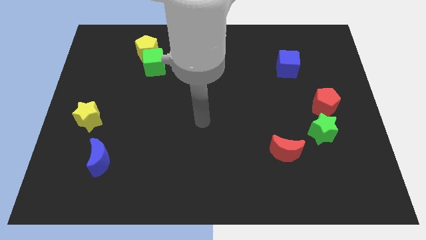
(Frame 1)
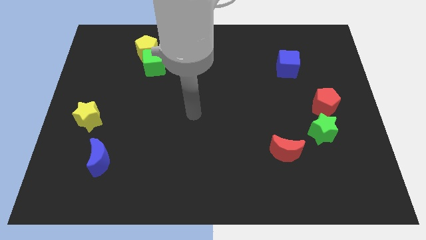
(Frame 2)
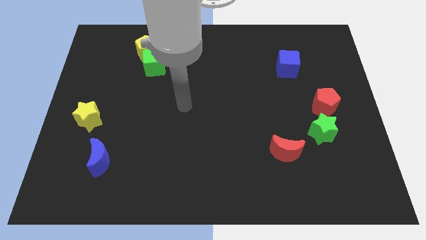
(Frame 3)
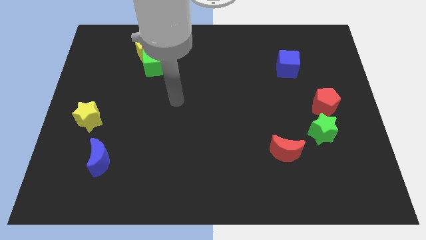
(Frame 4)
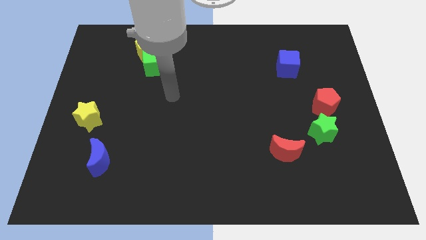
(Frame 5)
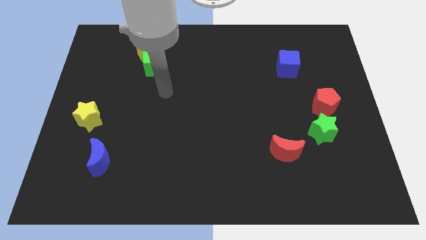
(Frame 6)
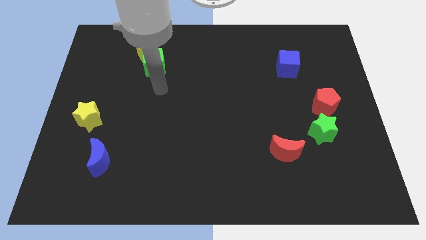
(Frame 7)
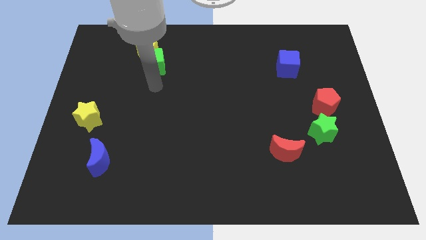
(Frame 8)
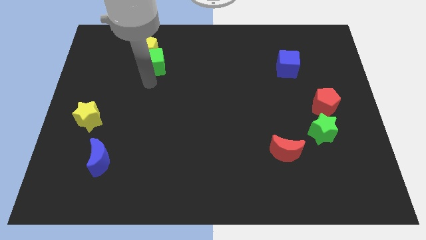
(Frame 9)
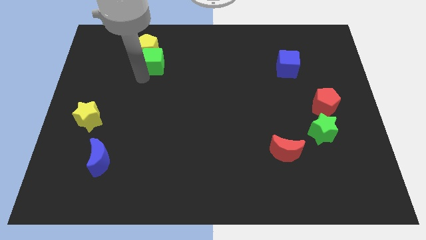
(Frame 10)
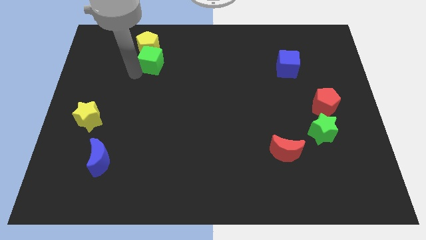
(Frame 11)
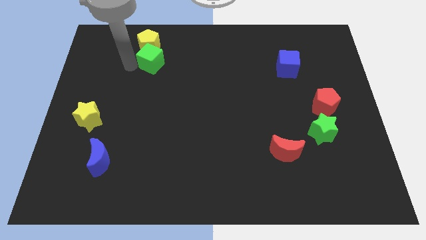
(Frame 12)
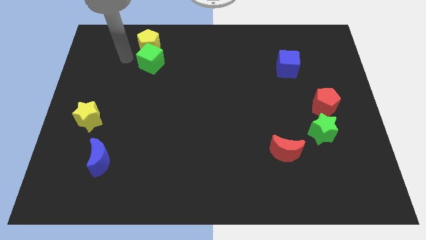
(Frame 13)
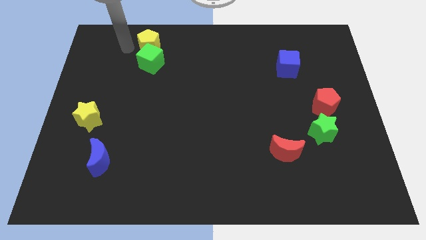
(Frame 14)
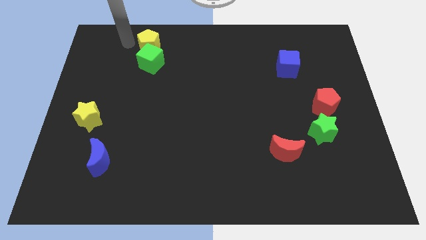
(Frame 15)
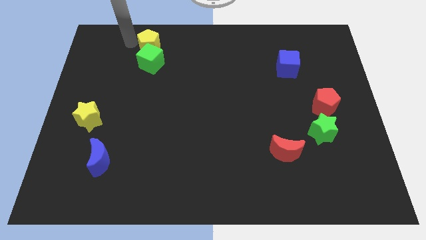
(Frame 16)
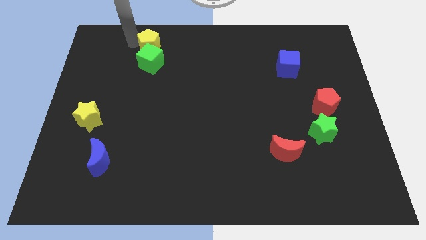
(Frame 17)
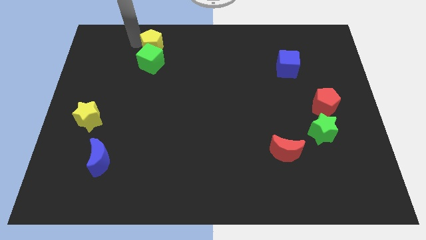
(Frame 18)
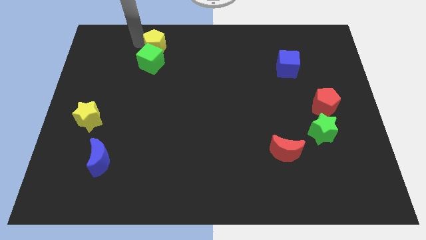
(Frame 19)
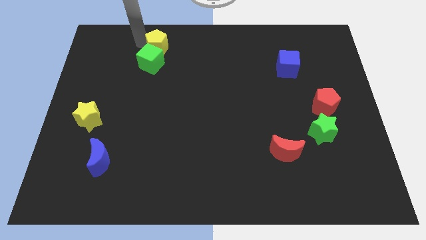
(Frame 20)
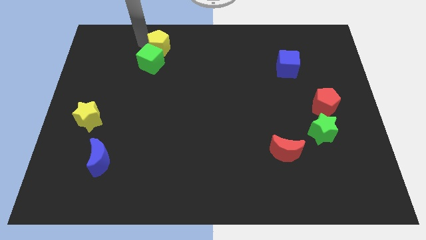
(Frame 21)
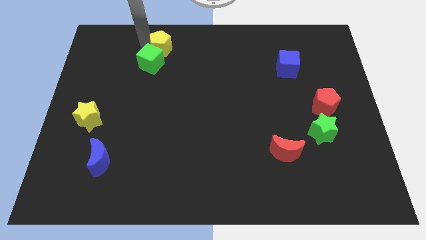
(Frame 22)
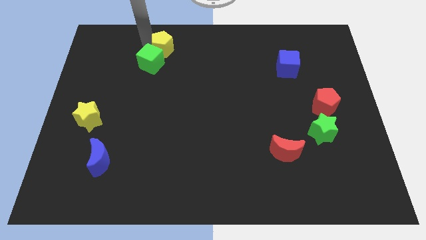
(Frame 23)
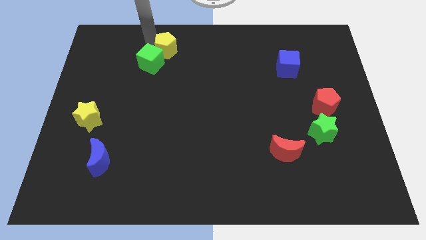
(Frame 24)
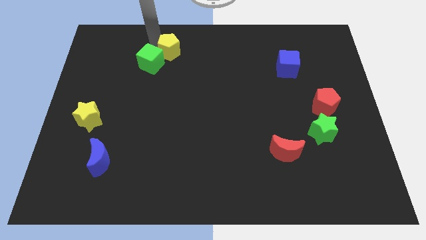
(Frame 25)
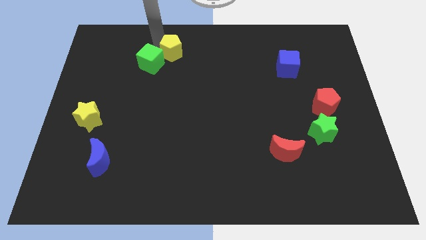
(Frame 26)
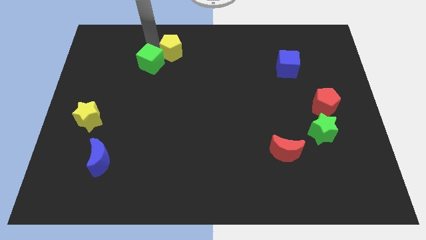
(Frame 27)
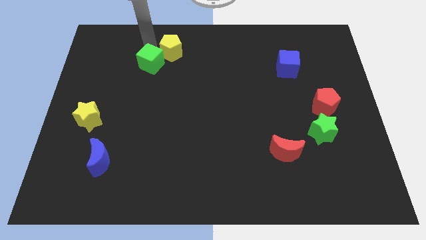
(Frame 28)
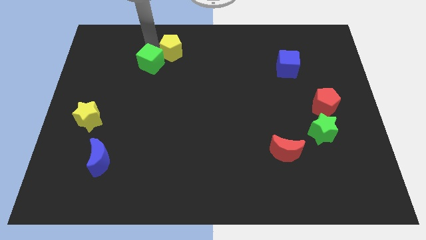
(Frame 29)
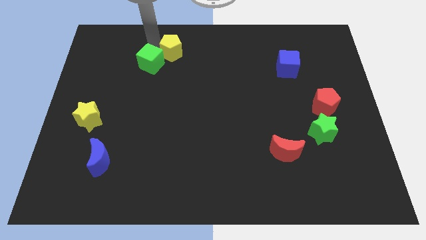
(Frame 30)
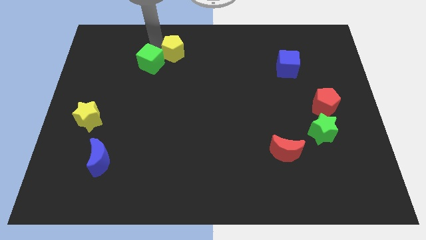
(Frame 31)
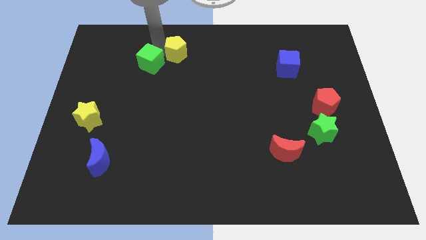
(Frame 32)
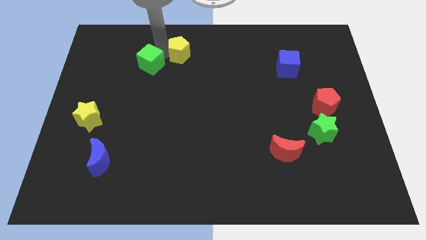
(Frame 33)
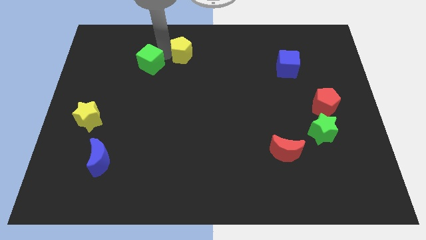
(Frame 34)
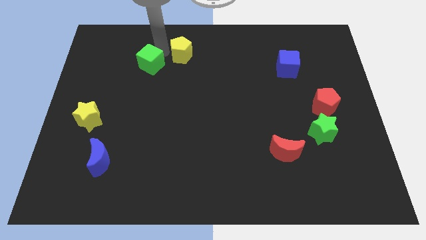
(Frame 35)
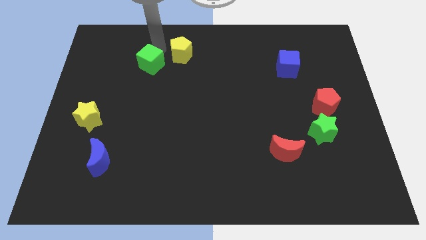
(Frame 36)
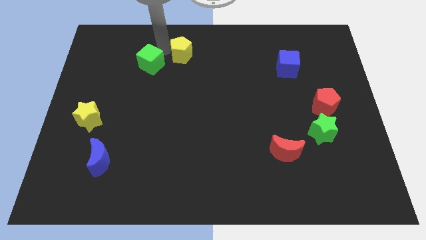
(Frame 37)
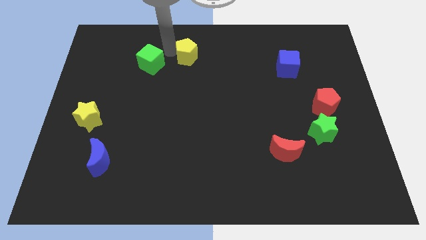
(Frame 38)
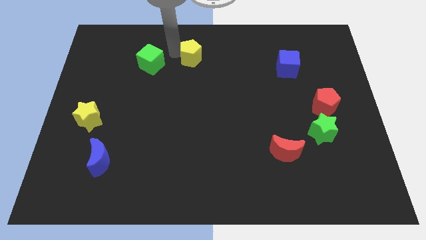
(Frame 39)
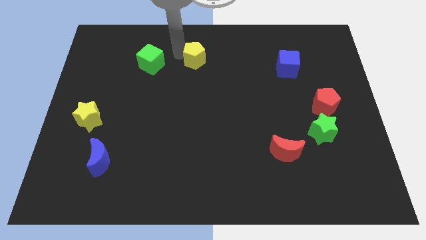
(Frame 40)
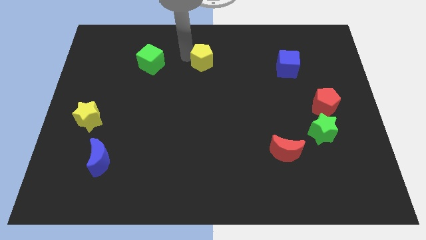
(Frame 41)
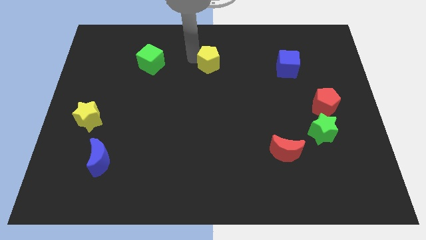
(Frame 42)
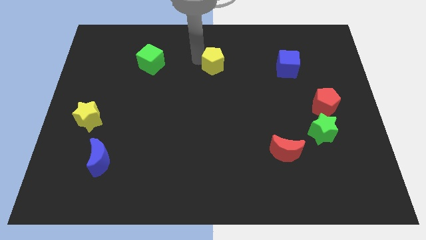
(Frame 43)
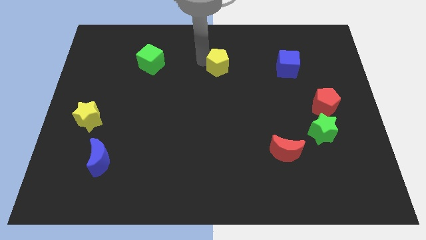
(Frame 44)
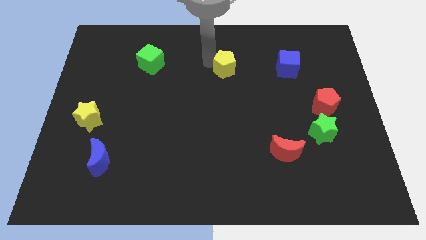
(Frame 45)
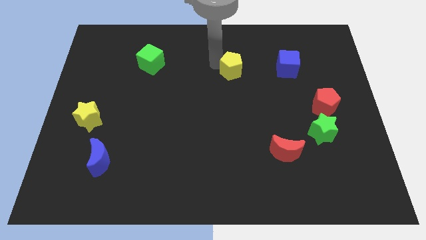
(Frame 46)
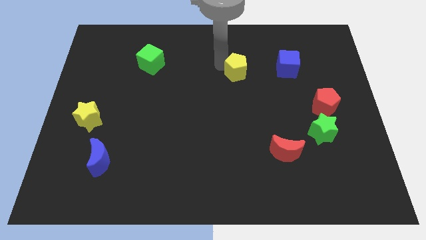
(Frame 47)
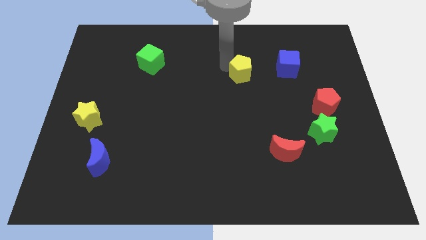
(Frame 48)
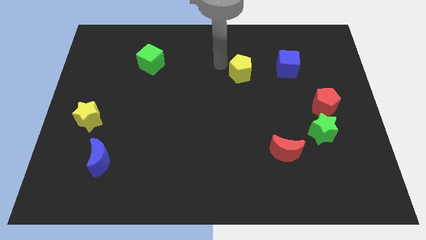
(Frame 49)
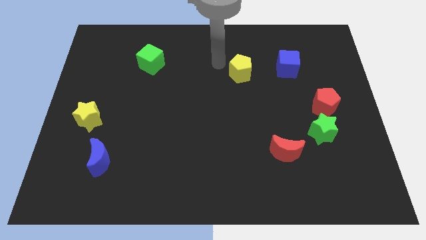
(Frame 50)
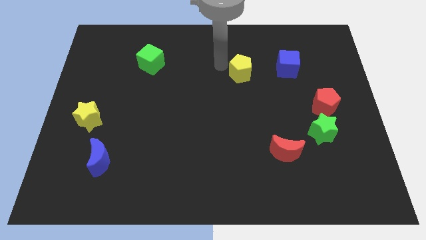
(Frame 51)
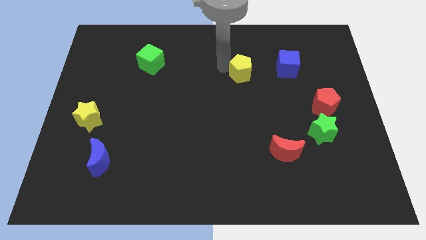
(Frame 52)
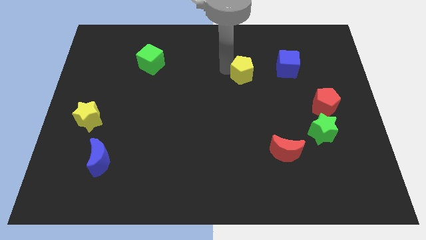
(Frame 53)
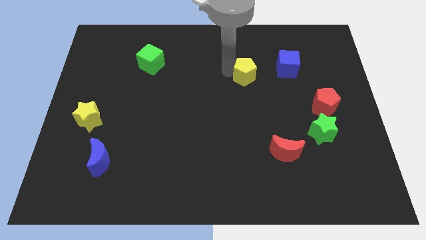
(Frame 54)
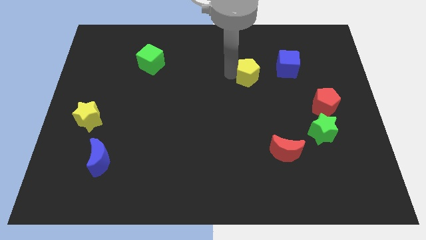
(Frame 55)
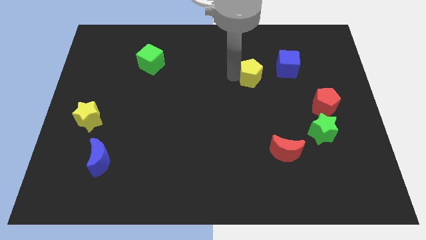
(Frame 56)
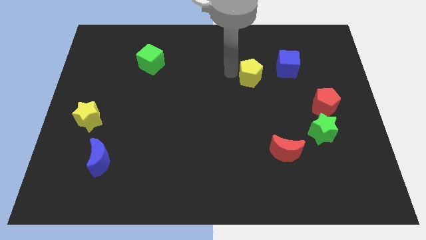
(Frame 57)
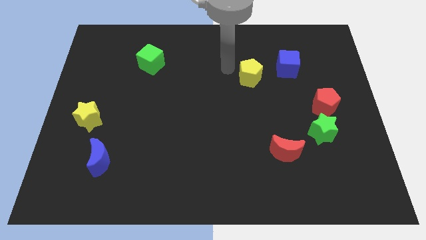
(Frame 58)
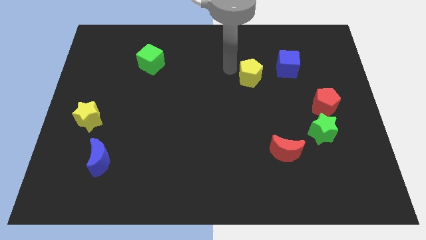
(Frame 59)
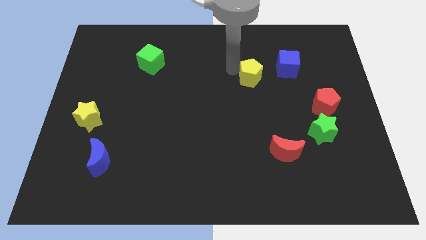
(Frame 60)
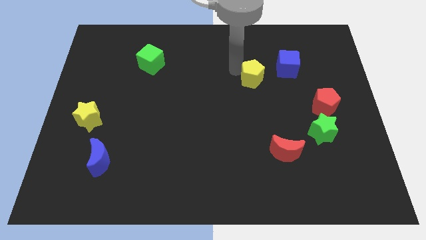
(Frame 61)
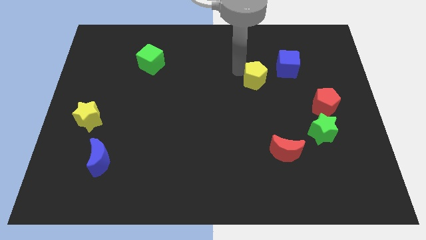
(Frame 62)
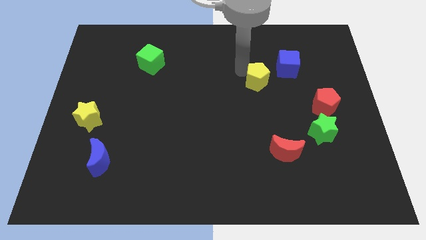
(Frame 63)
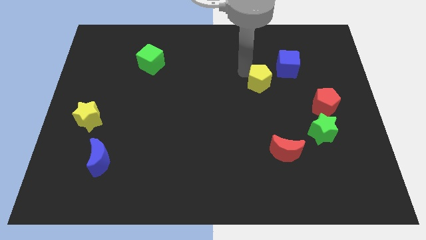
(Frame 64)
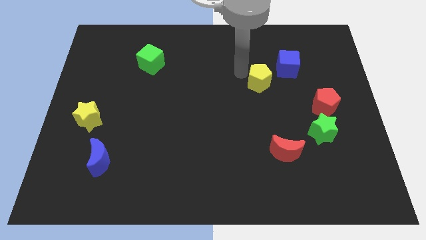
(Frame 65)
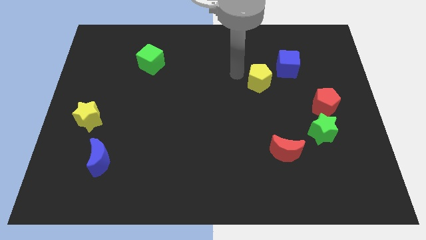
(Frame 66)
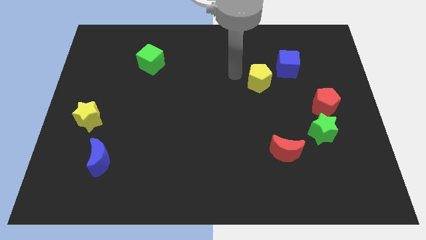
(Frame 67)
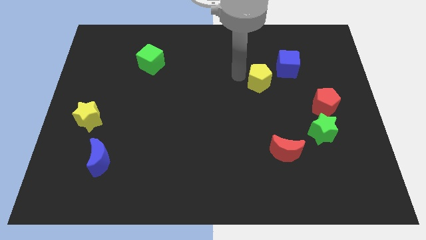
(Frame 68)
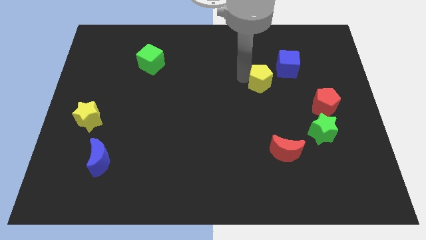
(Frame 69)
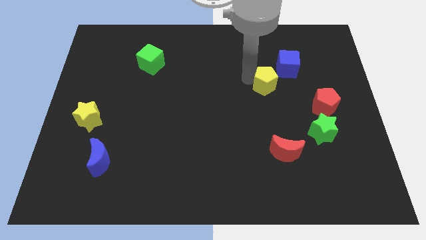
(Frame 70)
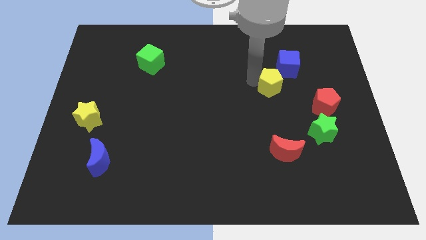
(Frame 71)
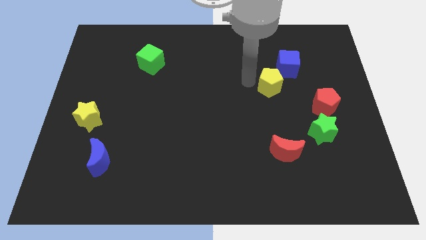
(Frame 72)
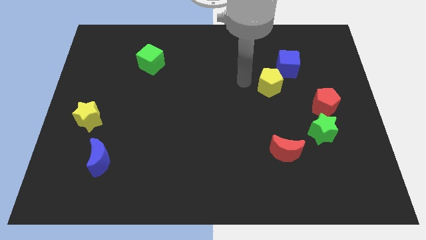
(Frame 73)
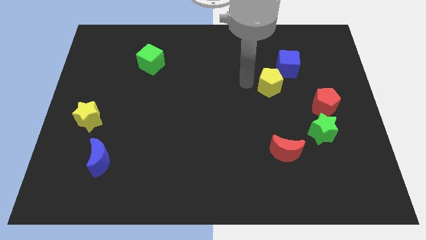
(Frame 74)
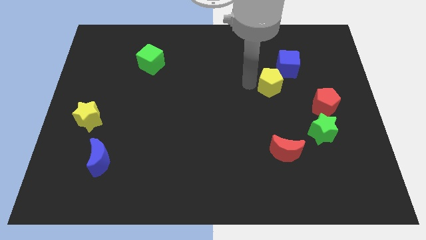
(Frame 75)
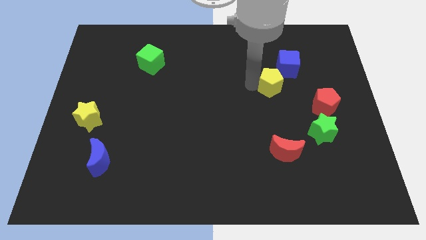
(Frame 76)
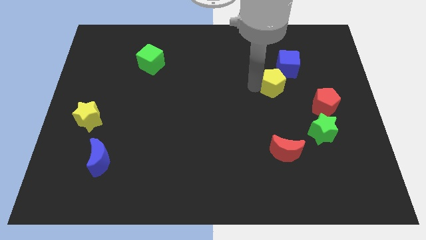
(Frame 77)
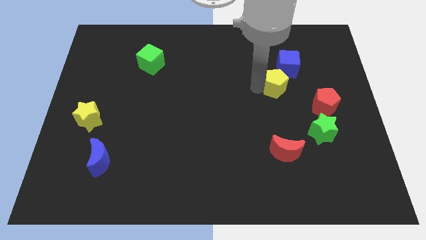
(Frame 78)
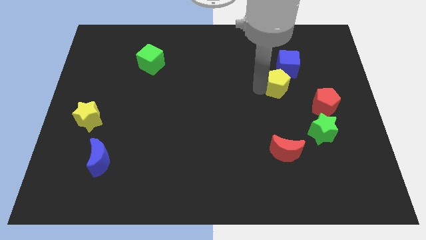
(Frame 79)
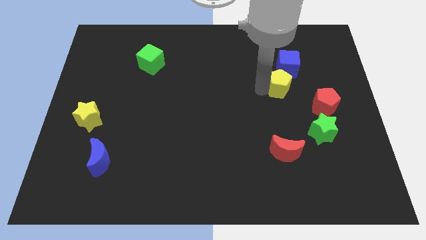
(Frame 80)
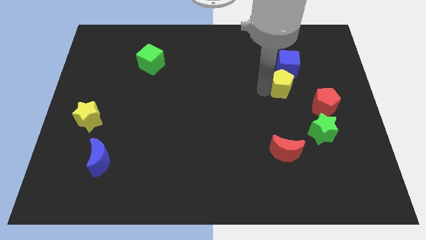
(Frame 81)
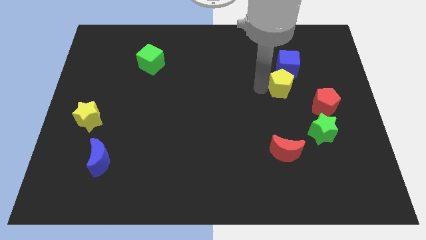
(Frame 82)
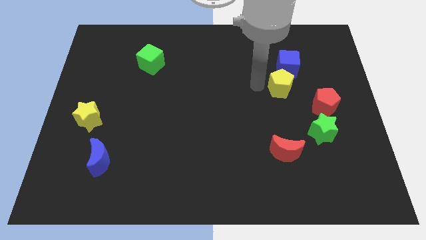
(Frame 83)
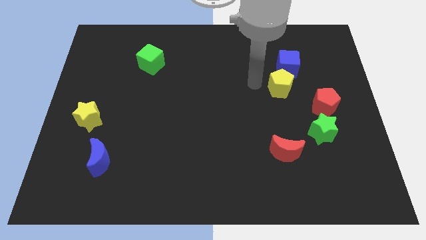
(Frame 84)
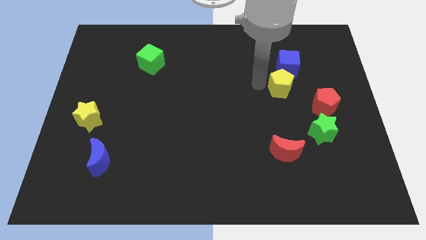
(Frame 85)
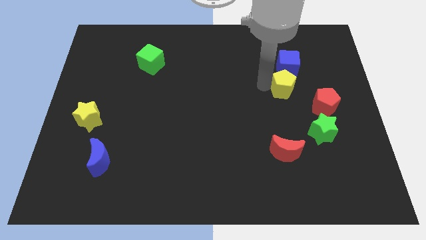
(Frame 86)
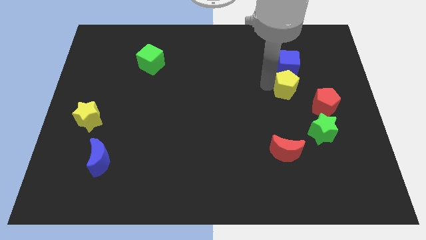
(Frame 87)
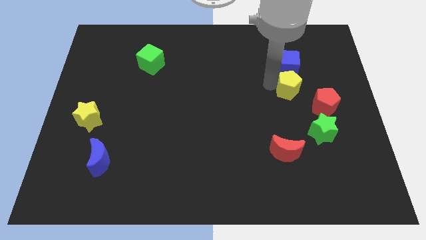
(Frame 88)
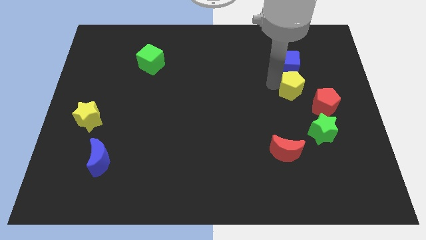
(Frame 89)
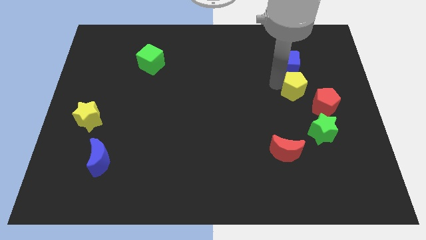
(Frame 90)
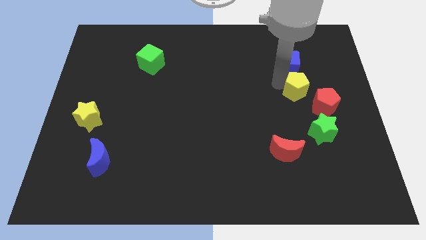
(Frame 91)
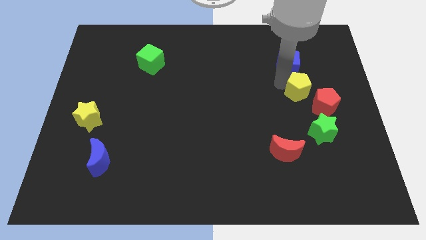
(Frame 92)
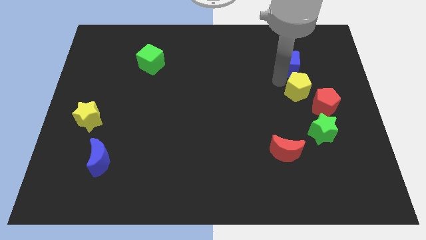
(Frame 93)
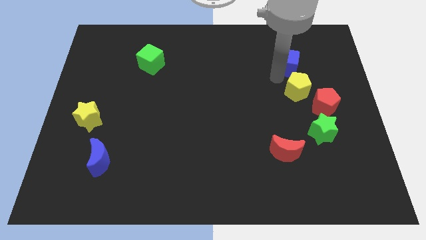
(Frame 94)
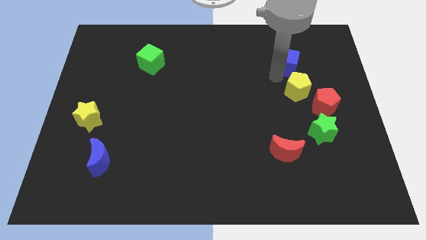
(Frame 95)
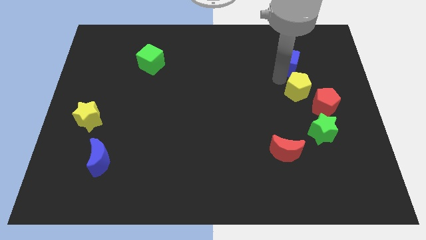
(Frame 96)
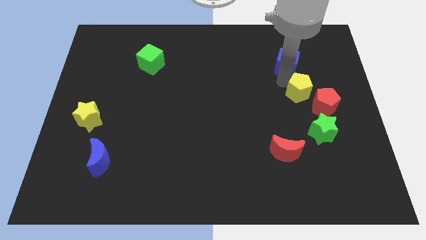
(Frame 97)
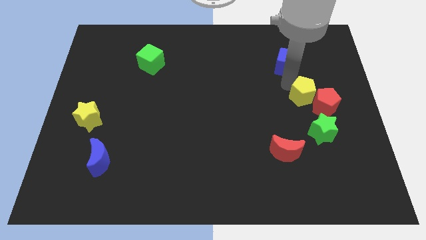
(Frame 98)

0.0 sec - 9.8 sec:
push the yellow pentagon towards the red pentagon
